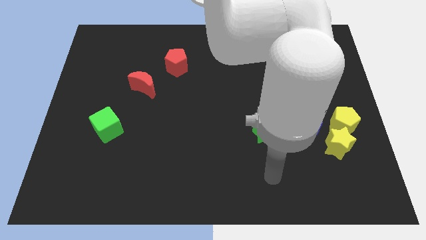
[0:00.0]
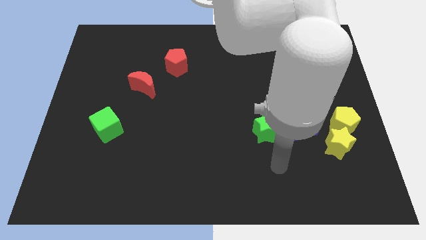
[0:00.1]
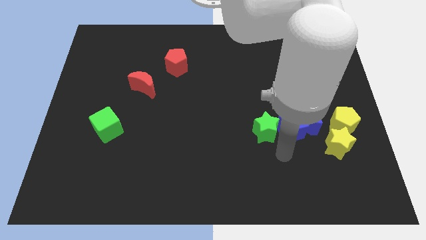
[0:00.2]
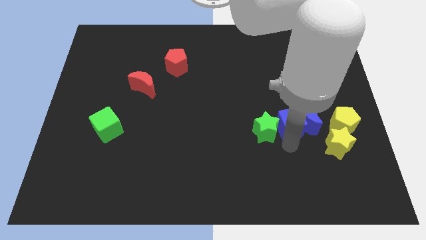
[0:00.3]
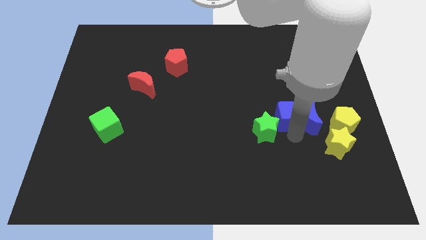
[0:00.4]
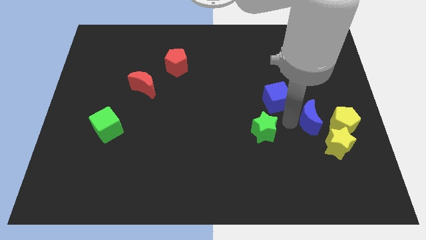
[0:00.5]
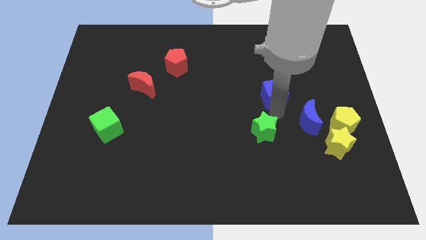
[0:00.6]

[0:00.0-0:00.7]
pull the green star apart from the blue cube

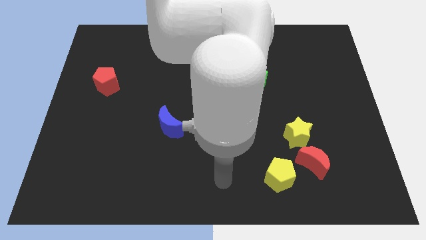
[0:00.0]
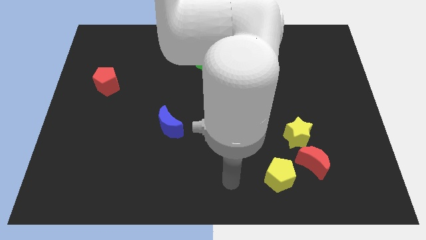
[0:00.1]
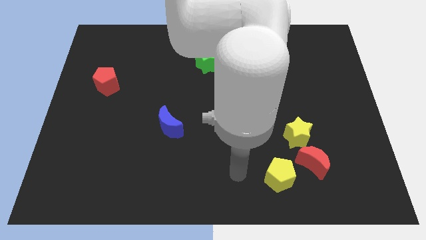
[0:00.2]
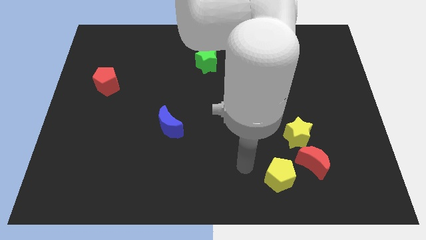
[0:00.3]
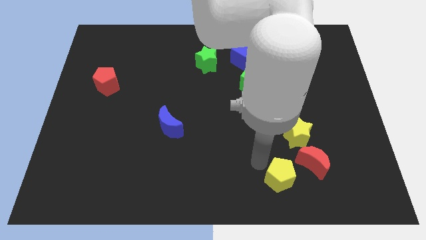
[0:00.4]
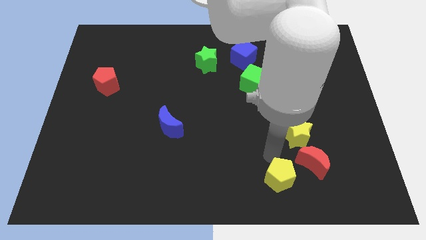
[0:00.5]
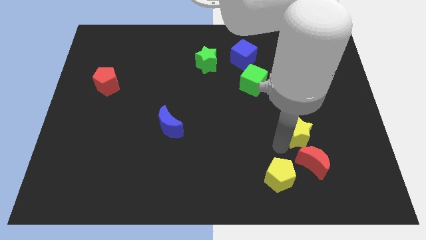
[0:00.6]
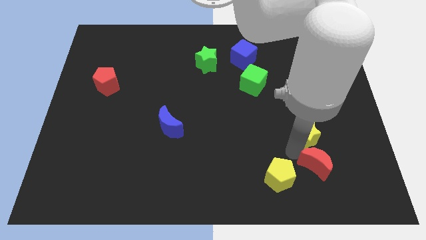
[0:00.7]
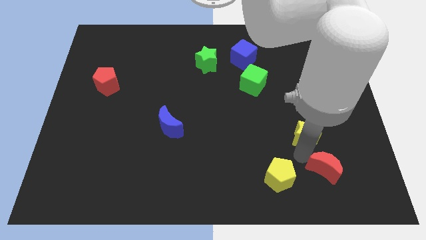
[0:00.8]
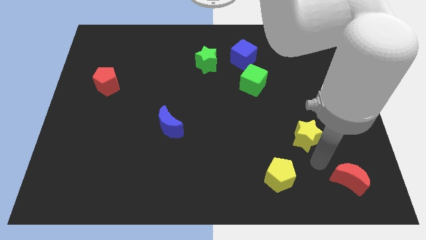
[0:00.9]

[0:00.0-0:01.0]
pull the yellow star apart from the red moon

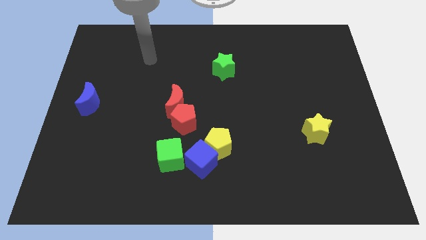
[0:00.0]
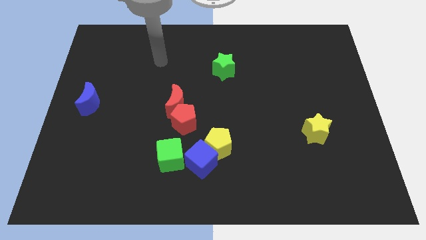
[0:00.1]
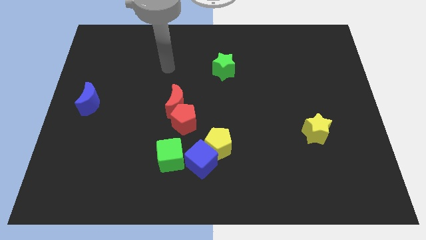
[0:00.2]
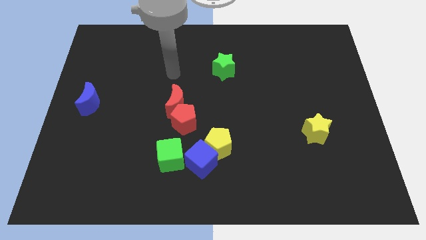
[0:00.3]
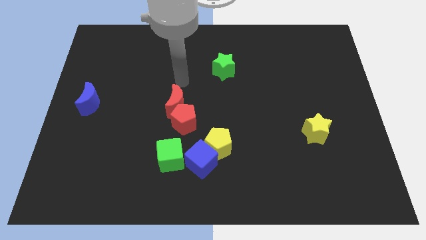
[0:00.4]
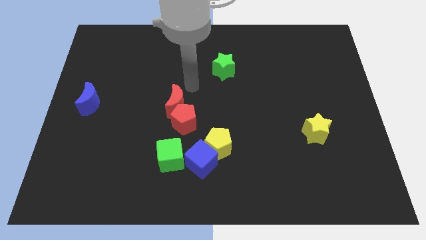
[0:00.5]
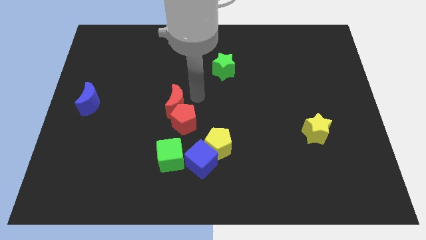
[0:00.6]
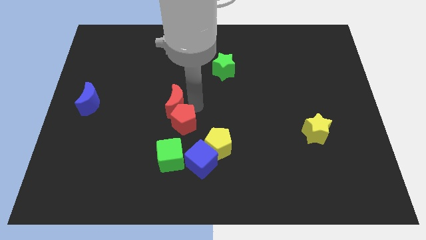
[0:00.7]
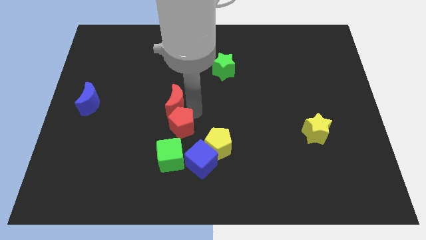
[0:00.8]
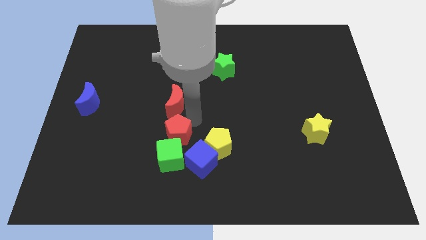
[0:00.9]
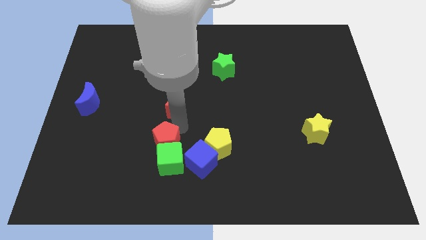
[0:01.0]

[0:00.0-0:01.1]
separate the red moon from the red pentagon

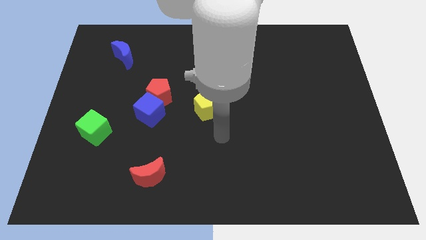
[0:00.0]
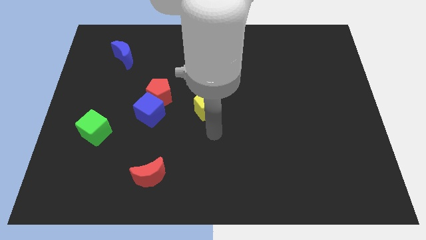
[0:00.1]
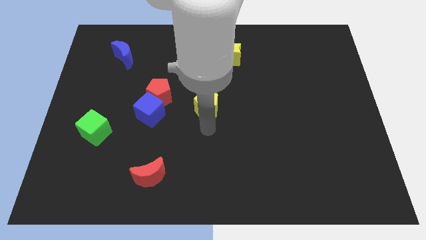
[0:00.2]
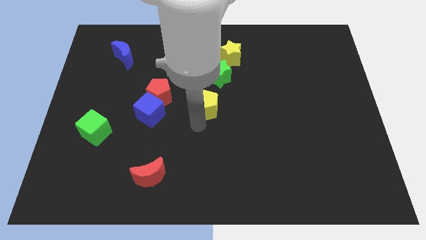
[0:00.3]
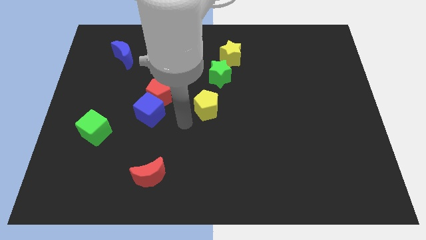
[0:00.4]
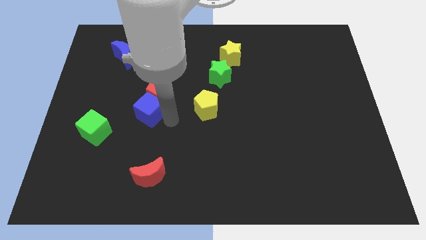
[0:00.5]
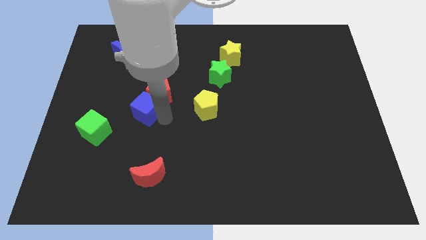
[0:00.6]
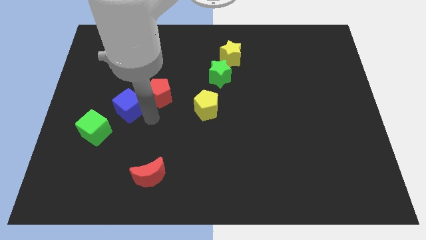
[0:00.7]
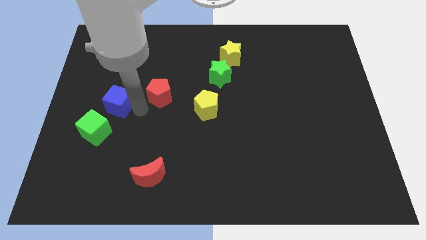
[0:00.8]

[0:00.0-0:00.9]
separate the red pentagon from the blue cube

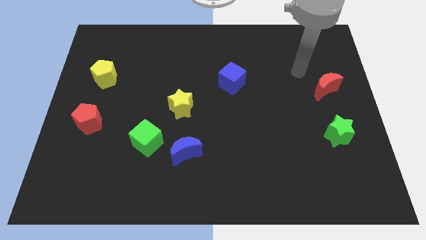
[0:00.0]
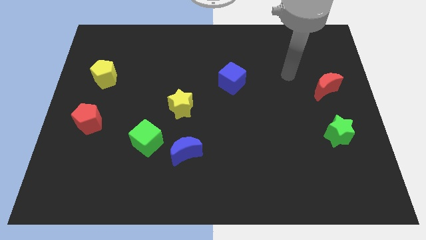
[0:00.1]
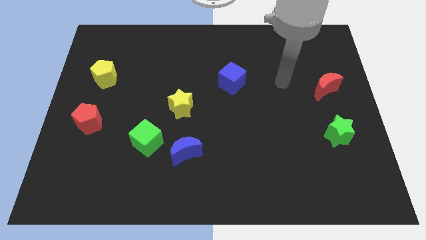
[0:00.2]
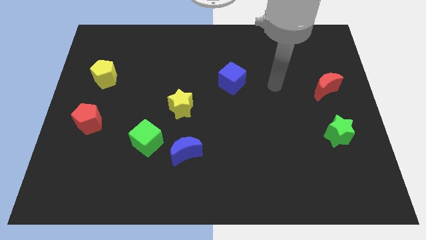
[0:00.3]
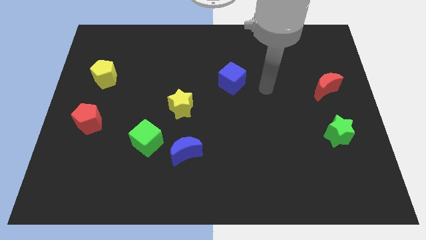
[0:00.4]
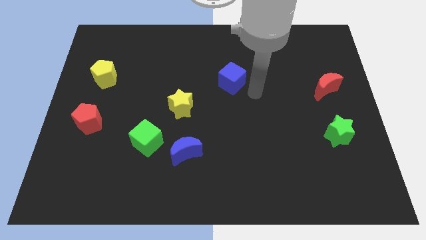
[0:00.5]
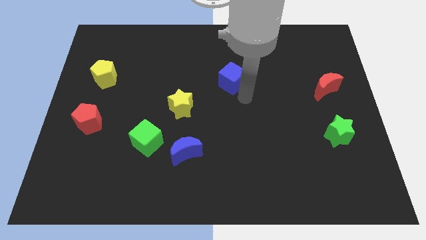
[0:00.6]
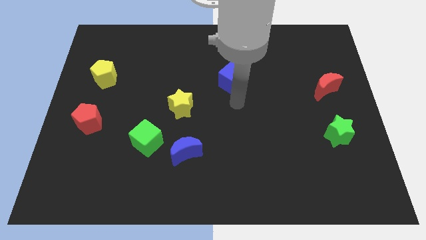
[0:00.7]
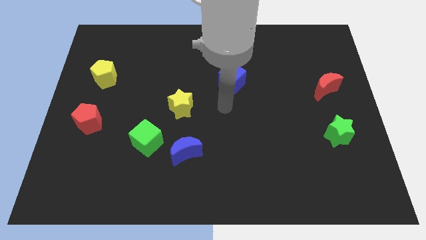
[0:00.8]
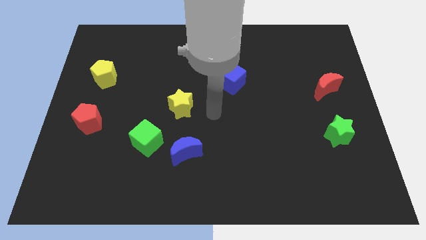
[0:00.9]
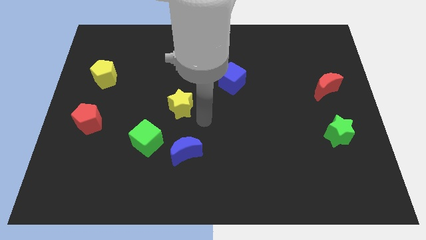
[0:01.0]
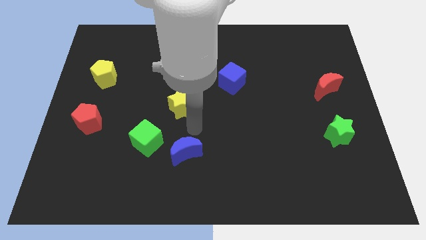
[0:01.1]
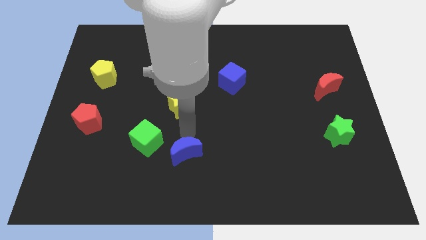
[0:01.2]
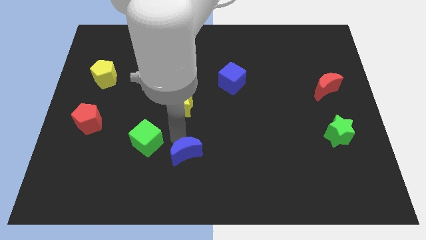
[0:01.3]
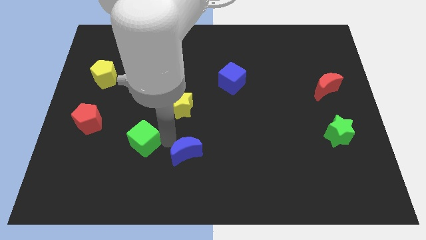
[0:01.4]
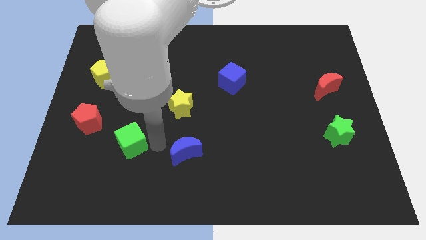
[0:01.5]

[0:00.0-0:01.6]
move the blue moon away from the green cube

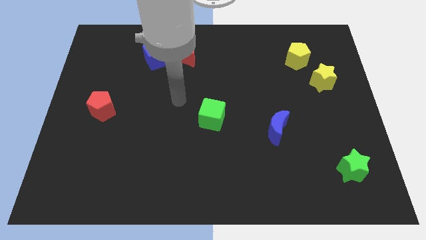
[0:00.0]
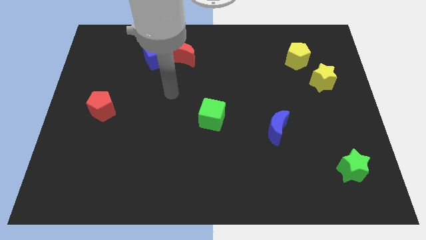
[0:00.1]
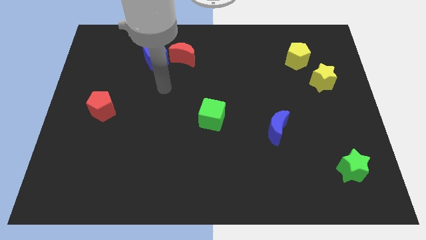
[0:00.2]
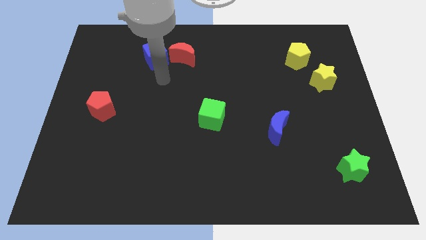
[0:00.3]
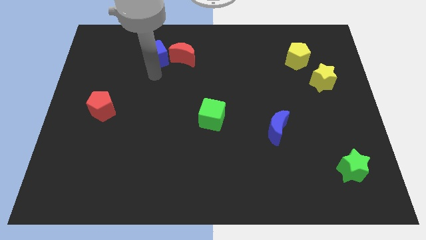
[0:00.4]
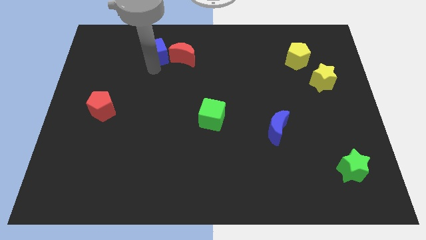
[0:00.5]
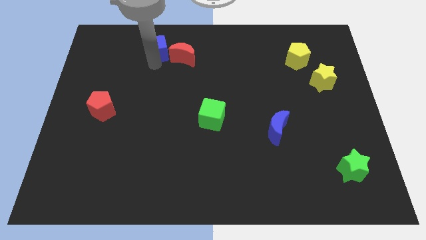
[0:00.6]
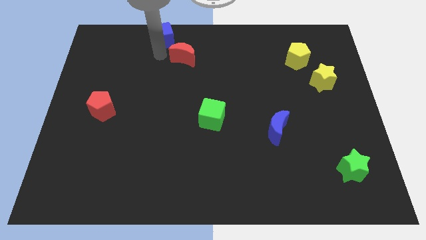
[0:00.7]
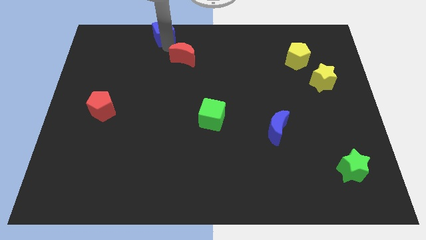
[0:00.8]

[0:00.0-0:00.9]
move the red moon away from the blue cube

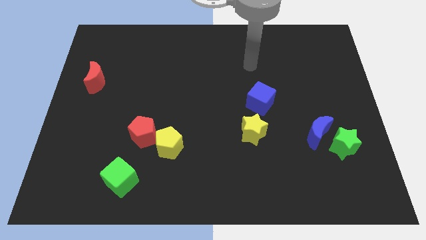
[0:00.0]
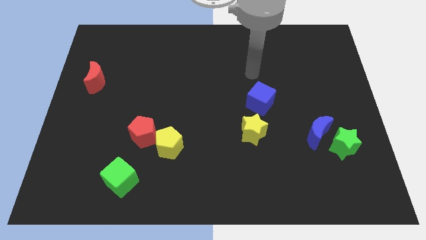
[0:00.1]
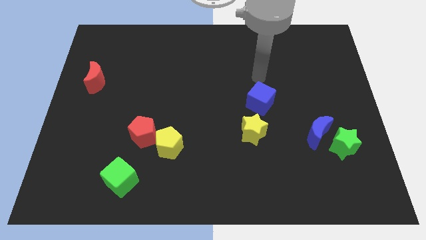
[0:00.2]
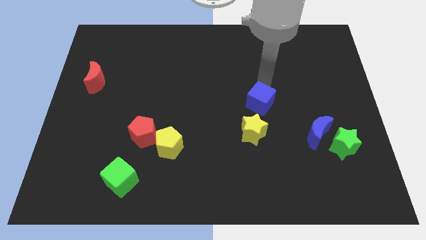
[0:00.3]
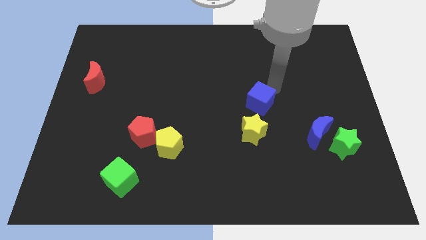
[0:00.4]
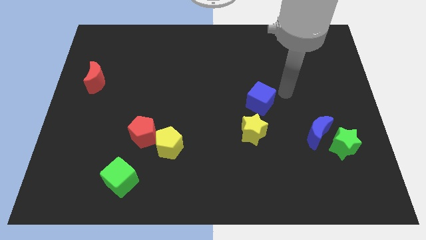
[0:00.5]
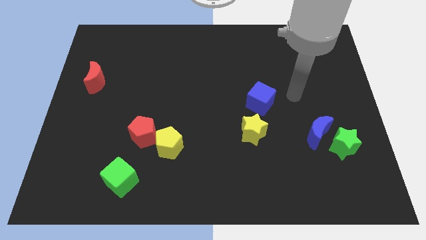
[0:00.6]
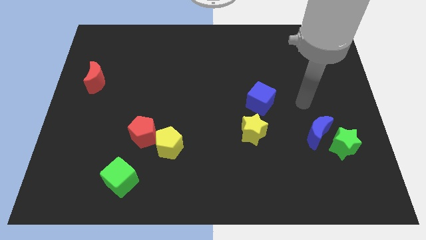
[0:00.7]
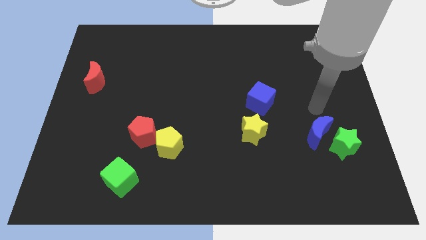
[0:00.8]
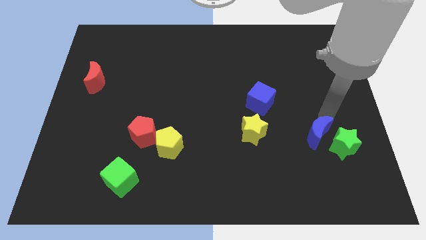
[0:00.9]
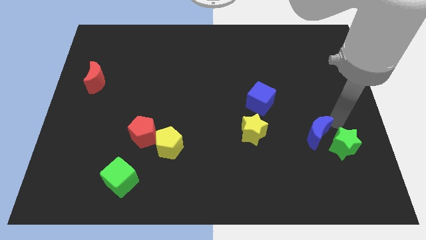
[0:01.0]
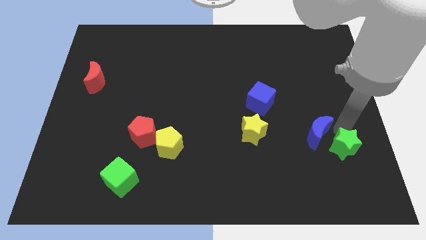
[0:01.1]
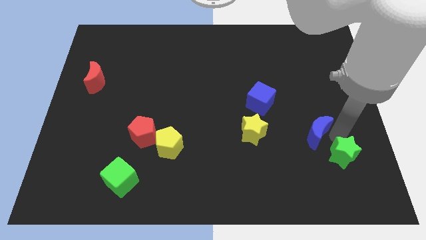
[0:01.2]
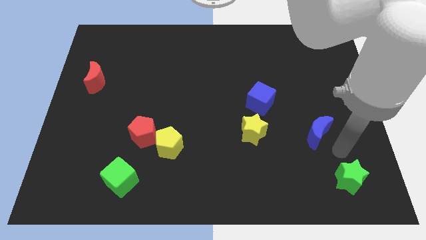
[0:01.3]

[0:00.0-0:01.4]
move the blue moon away from the green star

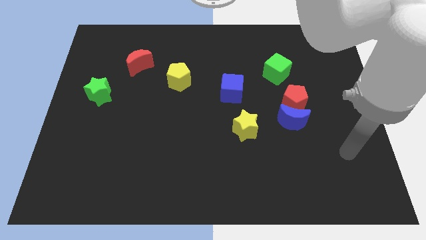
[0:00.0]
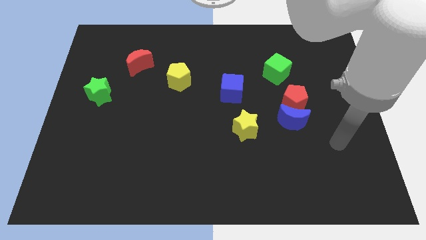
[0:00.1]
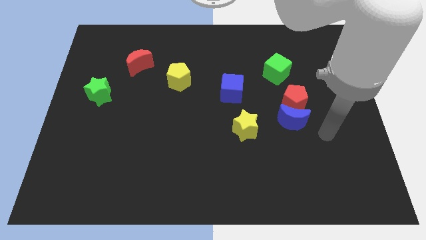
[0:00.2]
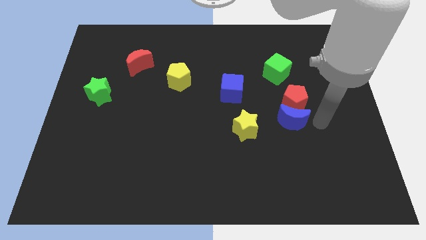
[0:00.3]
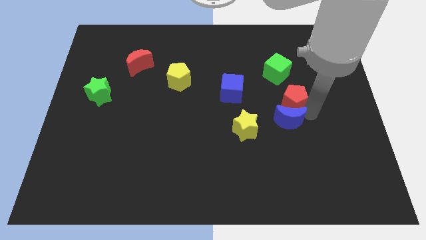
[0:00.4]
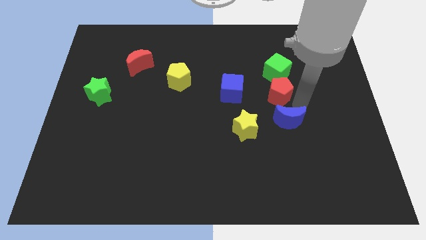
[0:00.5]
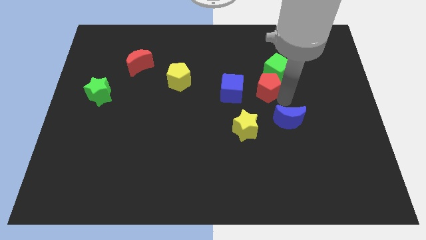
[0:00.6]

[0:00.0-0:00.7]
pull the blue moon apart from the red pentagon

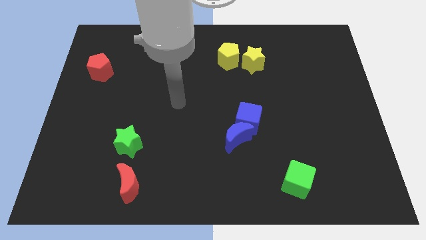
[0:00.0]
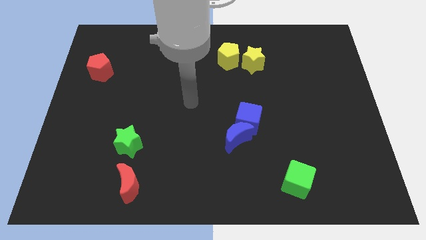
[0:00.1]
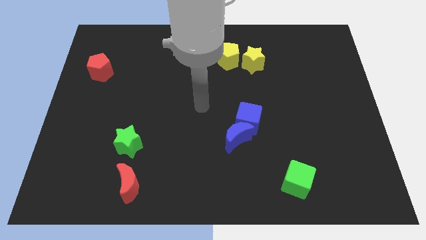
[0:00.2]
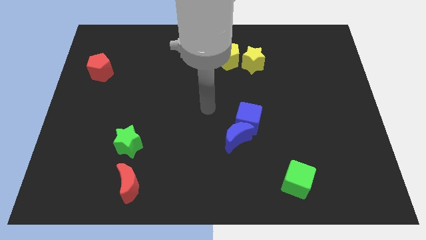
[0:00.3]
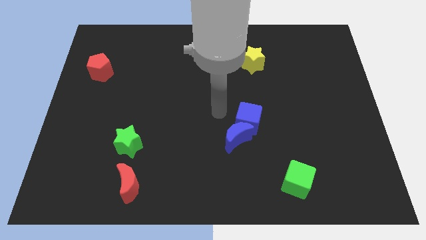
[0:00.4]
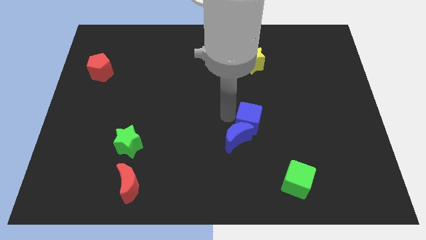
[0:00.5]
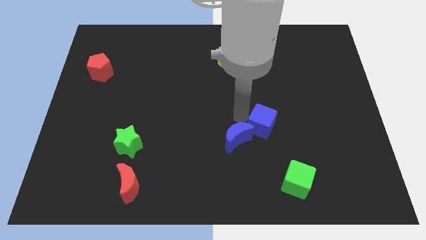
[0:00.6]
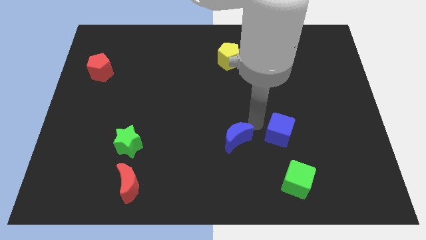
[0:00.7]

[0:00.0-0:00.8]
pull the blue moon apart from the blue cube

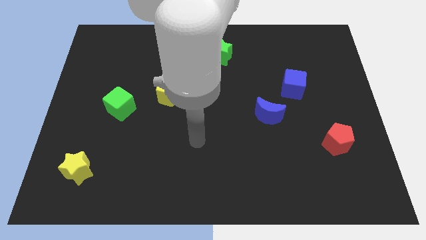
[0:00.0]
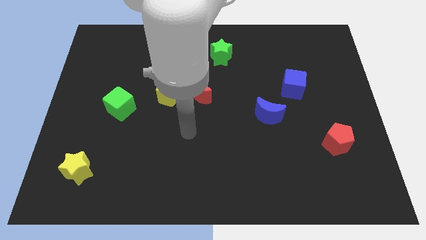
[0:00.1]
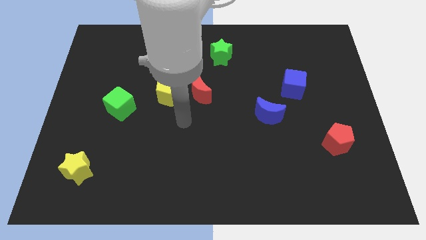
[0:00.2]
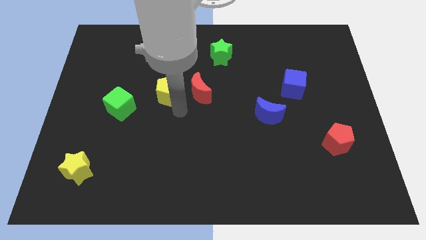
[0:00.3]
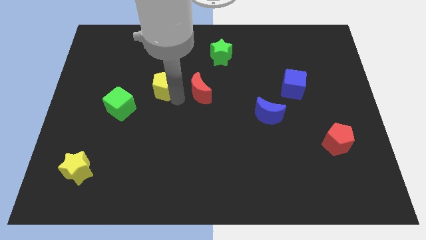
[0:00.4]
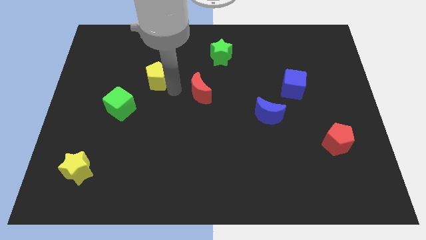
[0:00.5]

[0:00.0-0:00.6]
separate the red moon from the yellow pentagon
